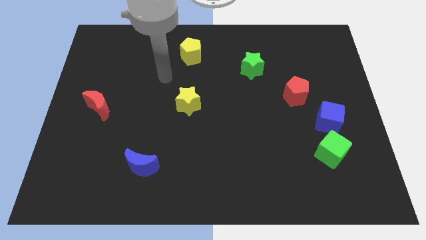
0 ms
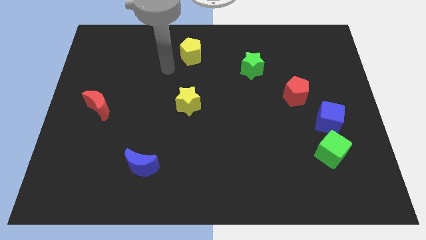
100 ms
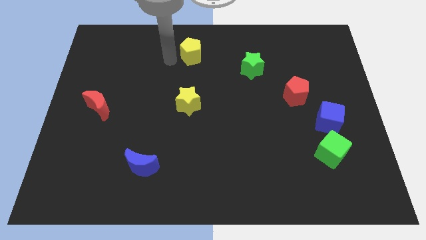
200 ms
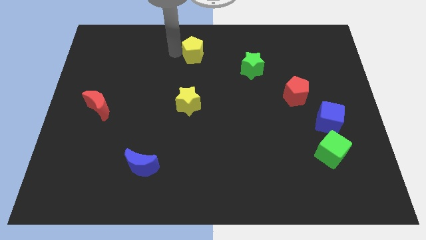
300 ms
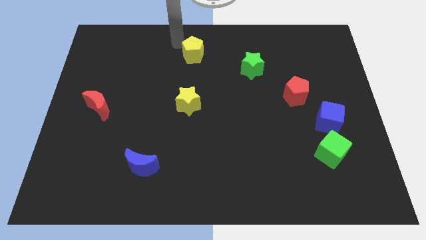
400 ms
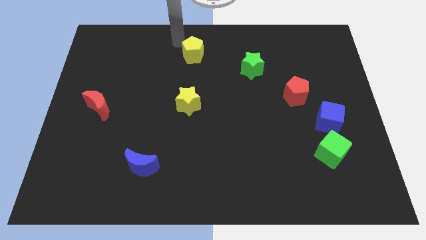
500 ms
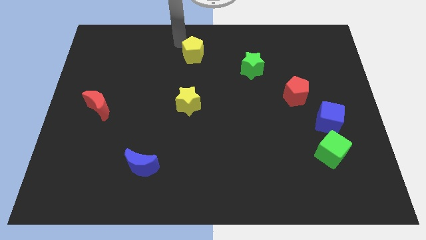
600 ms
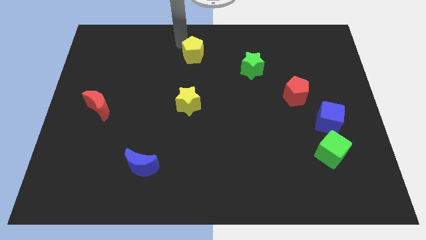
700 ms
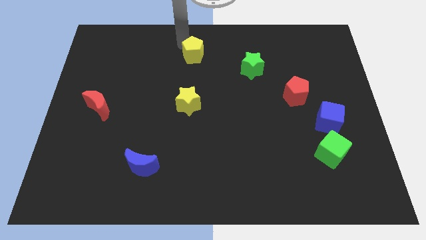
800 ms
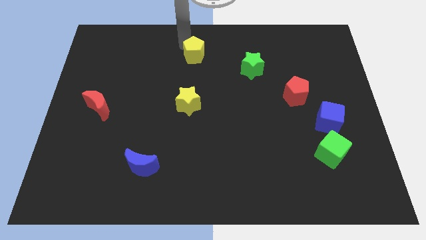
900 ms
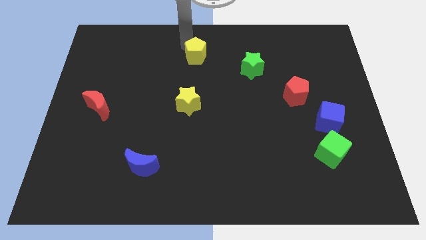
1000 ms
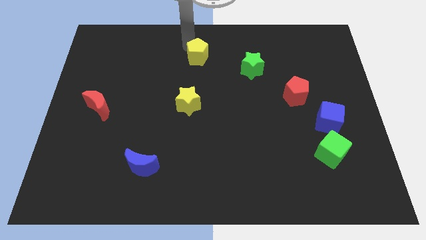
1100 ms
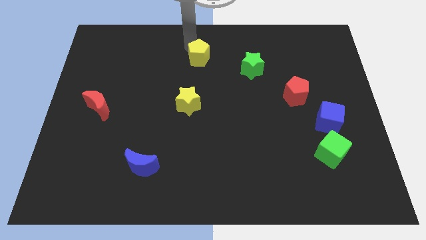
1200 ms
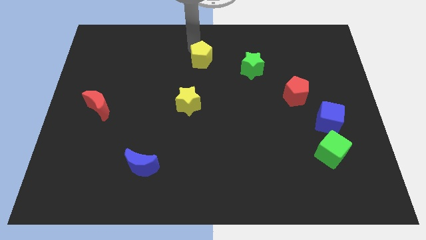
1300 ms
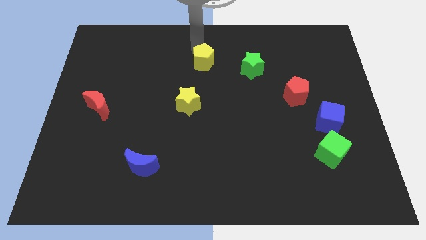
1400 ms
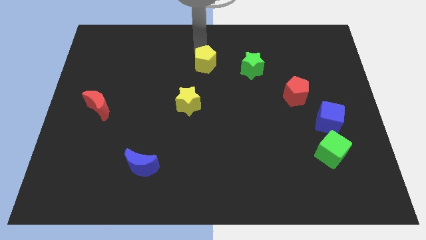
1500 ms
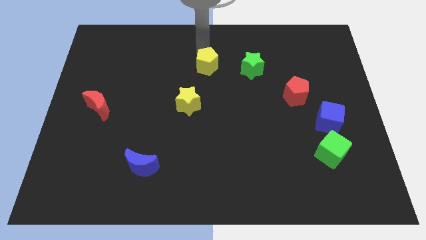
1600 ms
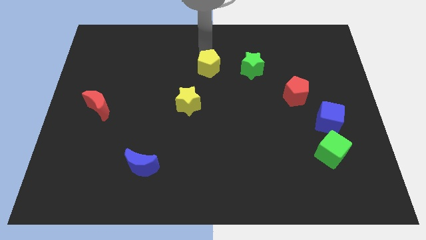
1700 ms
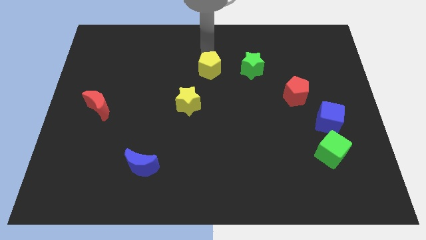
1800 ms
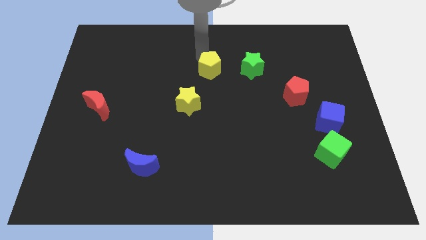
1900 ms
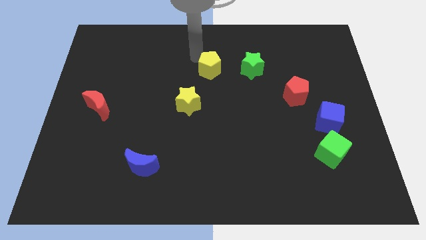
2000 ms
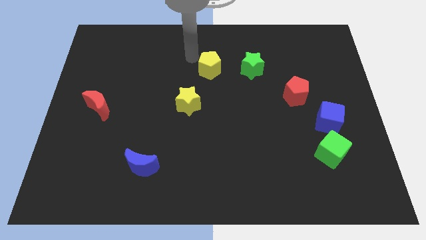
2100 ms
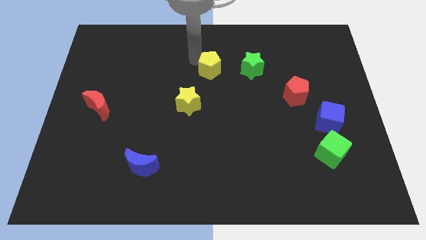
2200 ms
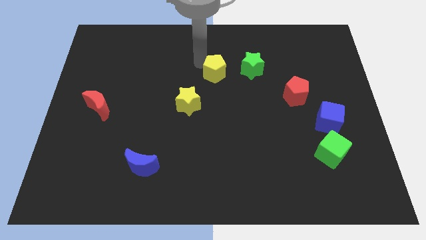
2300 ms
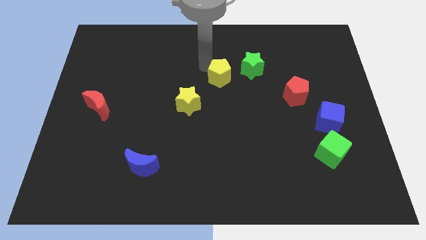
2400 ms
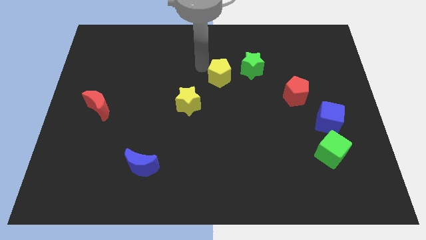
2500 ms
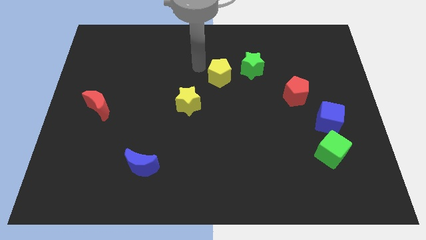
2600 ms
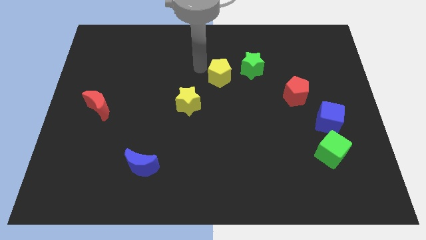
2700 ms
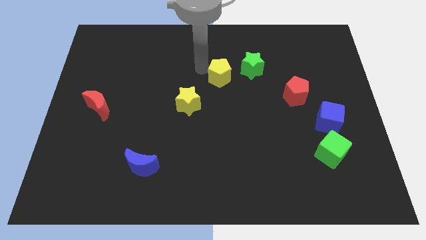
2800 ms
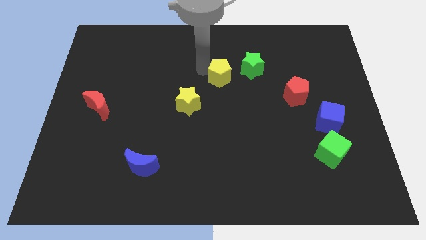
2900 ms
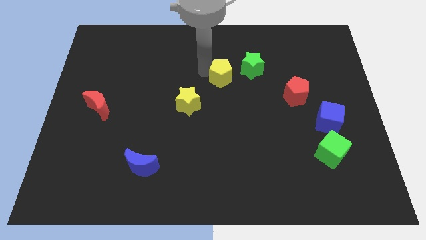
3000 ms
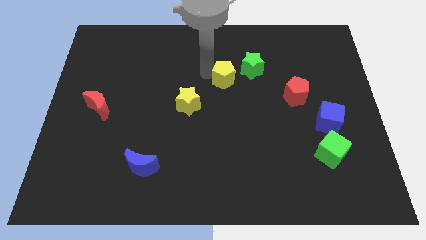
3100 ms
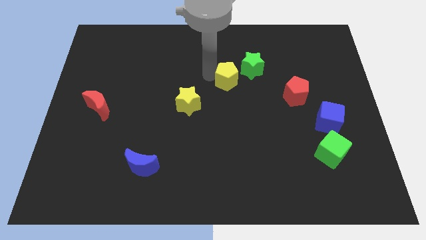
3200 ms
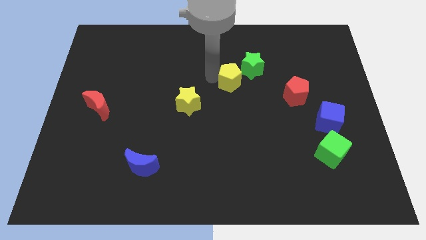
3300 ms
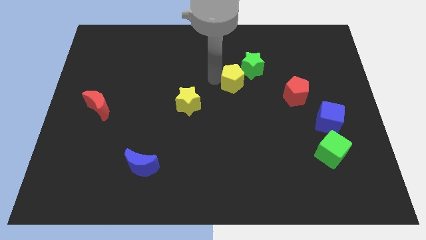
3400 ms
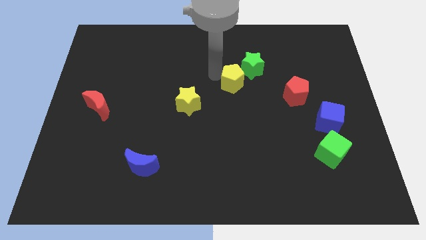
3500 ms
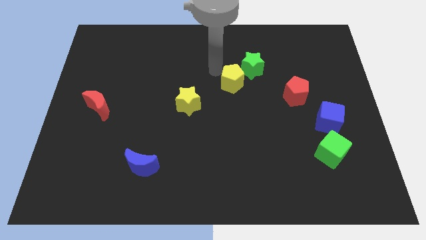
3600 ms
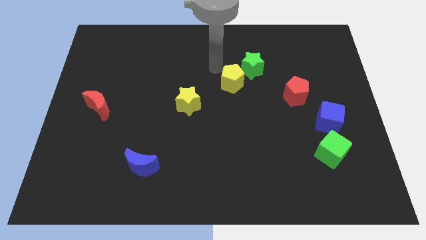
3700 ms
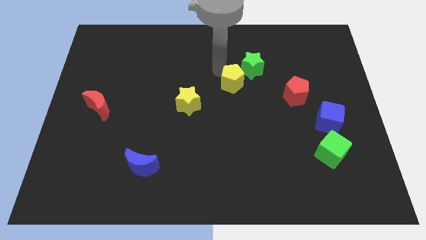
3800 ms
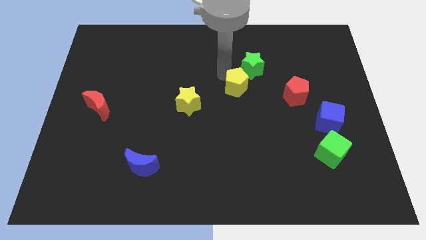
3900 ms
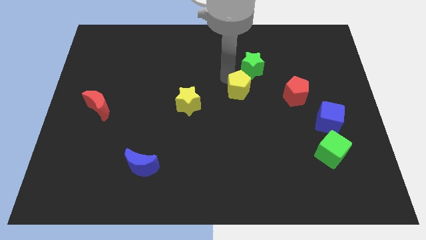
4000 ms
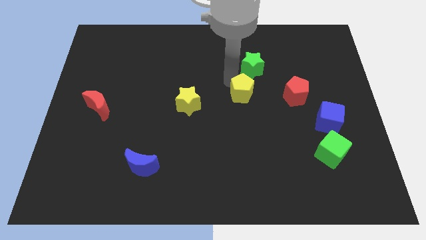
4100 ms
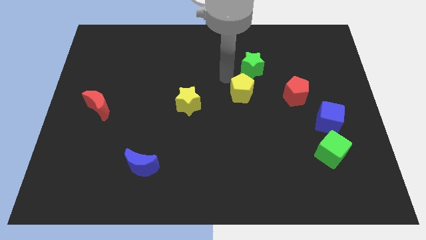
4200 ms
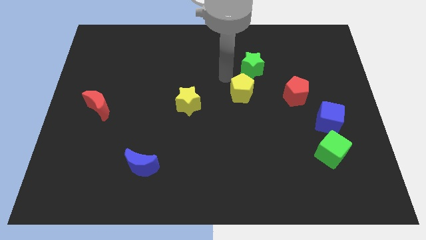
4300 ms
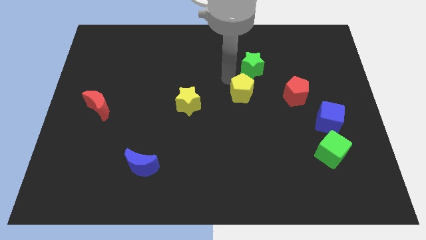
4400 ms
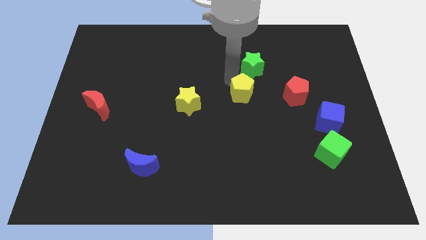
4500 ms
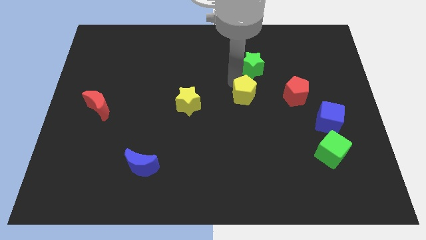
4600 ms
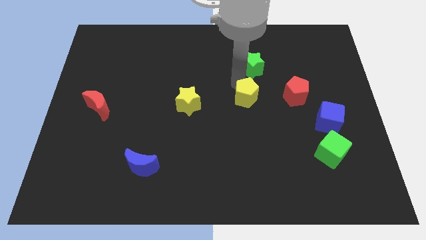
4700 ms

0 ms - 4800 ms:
push the yellow pentagon down and right

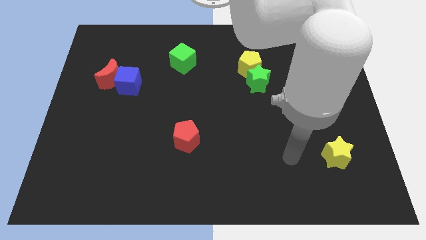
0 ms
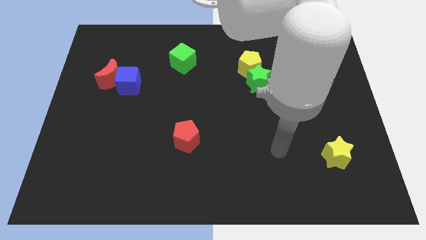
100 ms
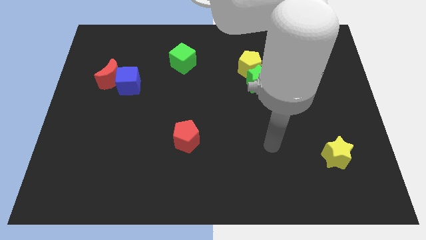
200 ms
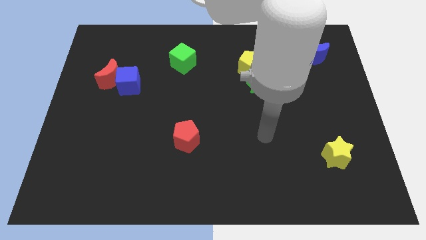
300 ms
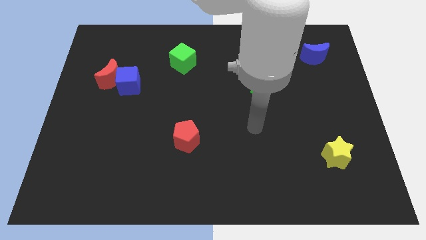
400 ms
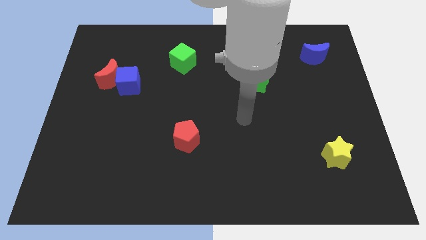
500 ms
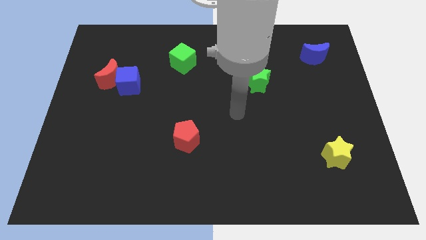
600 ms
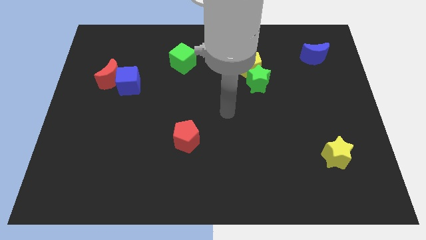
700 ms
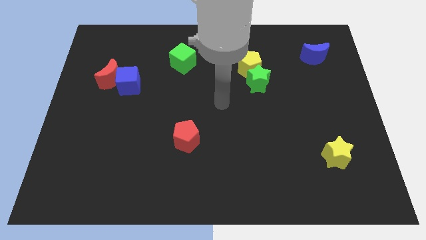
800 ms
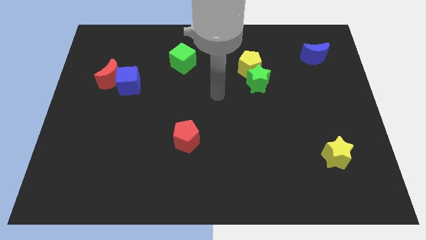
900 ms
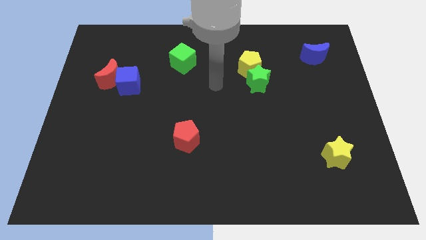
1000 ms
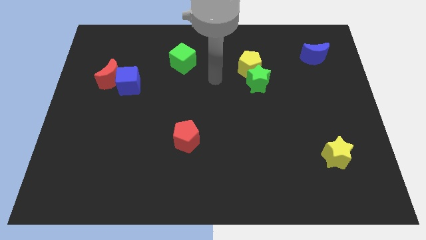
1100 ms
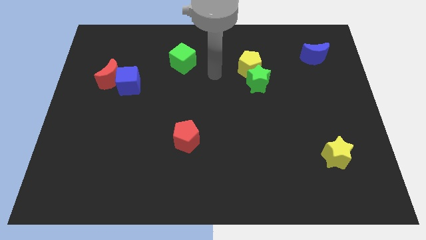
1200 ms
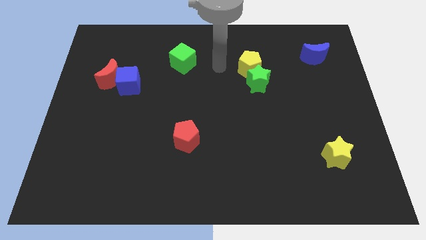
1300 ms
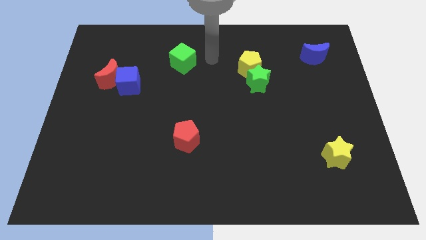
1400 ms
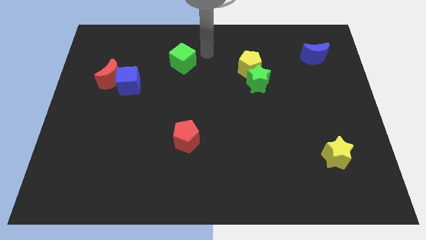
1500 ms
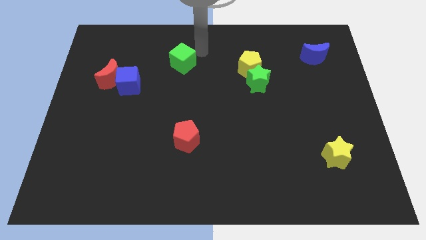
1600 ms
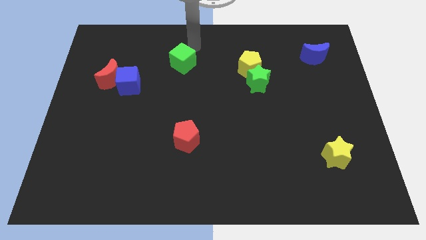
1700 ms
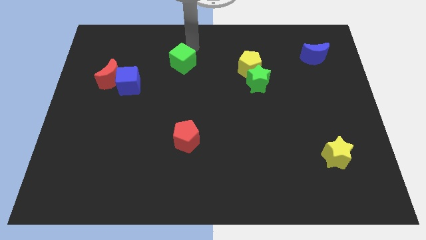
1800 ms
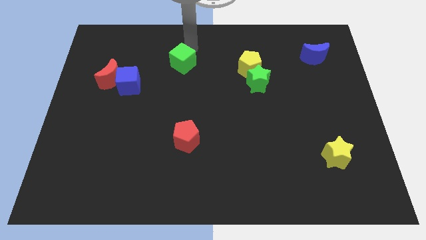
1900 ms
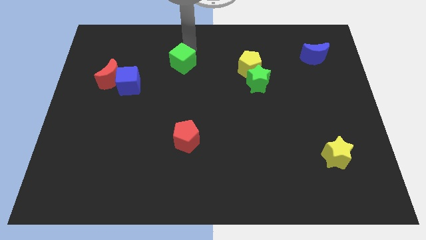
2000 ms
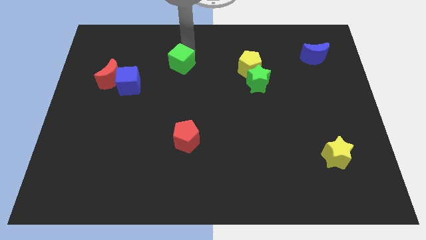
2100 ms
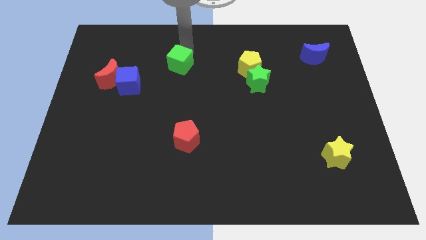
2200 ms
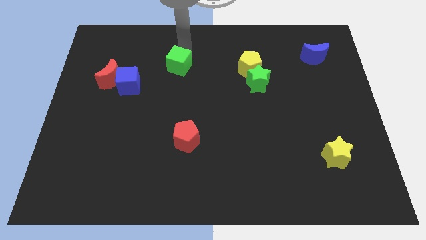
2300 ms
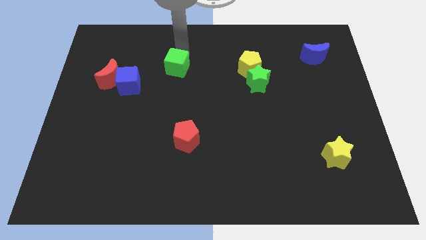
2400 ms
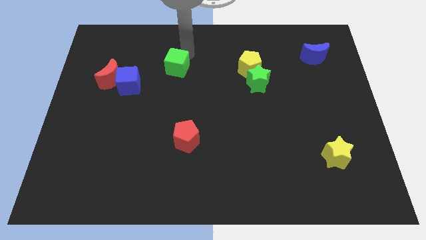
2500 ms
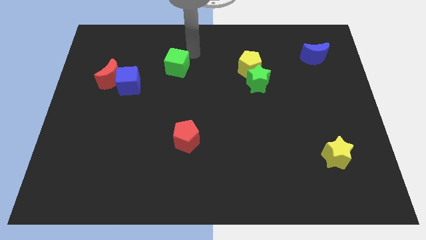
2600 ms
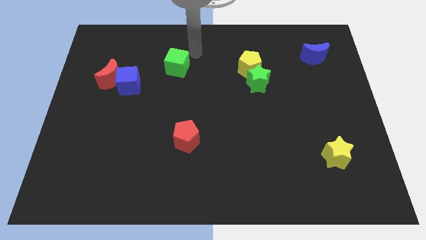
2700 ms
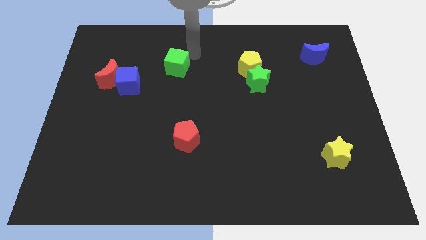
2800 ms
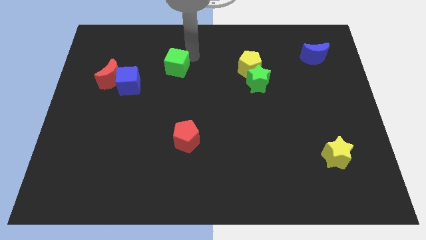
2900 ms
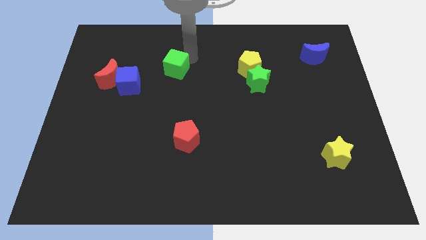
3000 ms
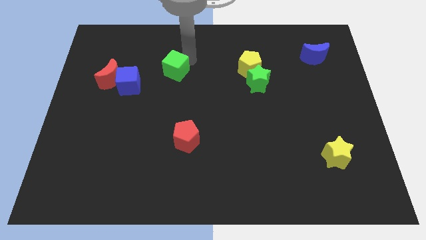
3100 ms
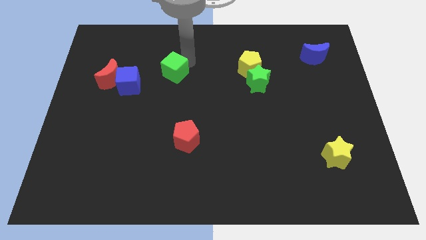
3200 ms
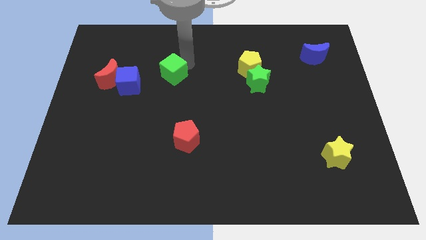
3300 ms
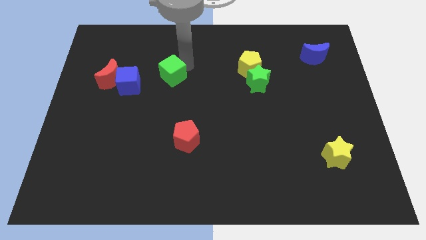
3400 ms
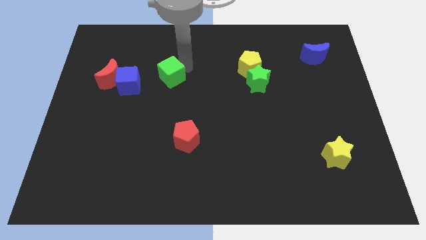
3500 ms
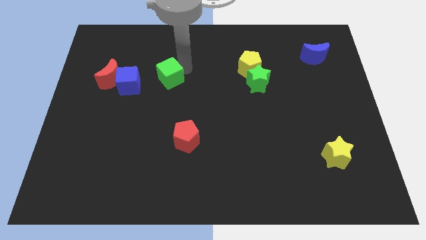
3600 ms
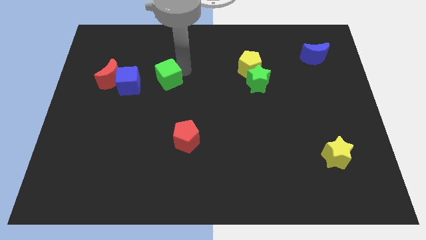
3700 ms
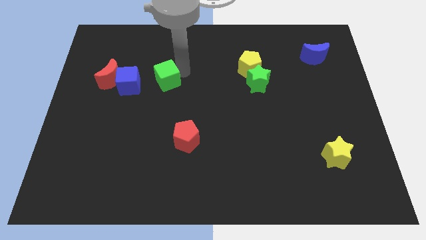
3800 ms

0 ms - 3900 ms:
move the green cube down and left diagonally somewhat
